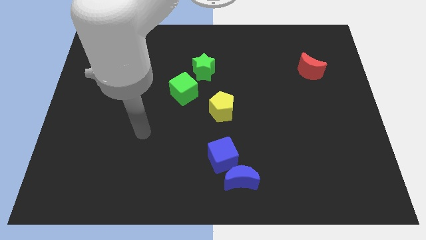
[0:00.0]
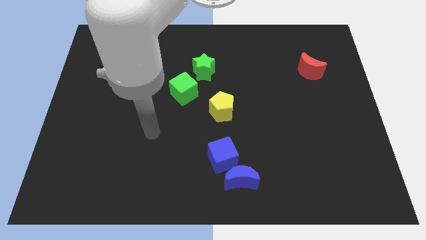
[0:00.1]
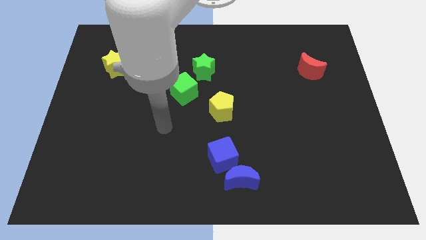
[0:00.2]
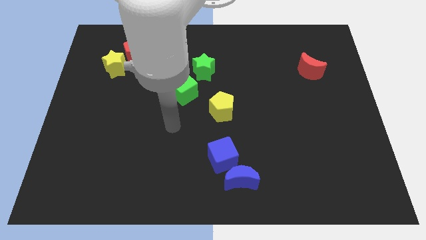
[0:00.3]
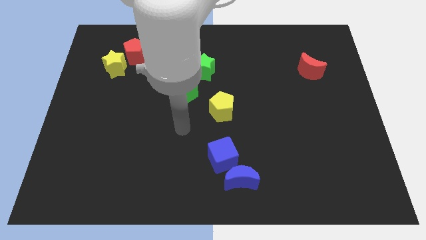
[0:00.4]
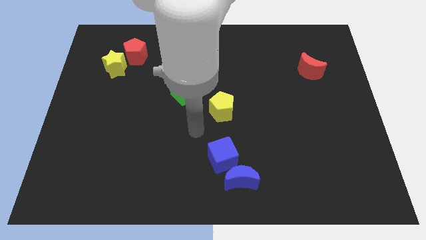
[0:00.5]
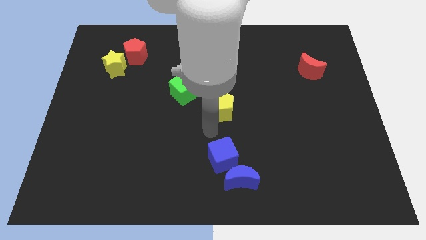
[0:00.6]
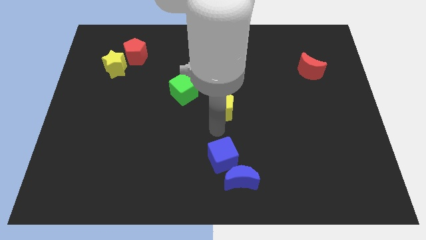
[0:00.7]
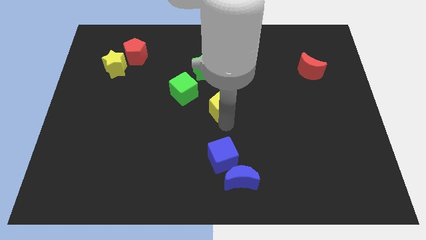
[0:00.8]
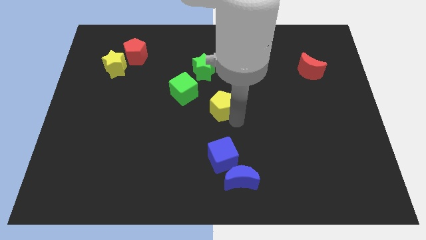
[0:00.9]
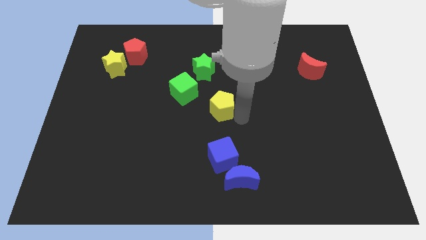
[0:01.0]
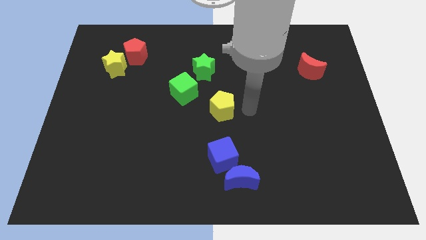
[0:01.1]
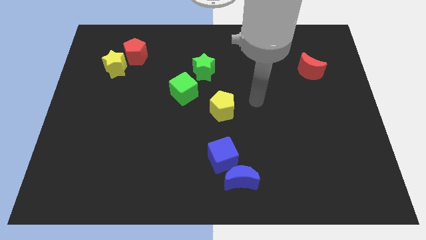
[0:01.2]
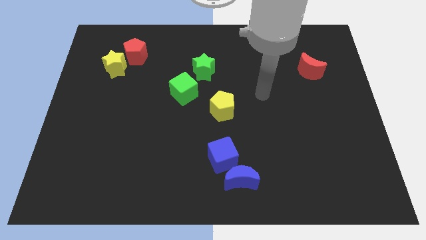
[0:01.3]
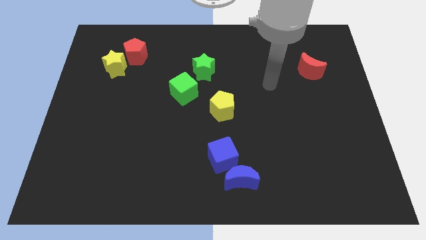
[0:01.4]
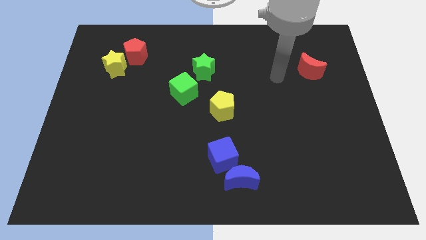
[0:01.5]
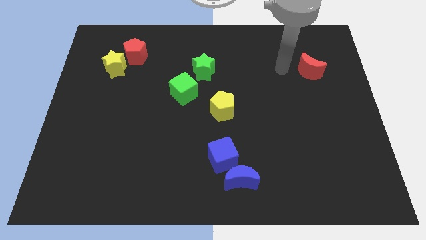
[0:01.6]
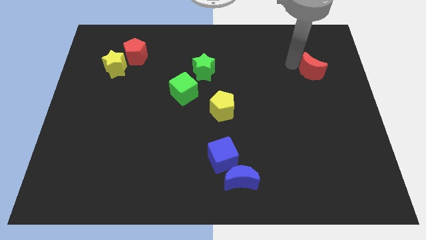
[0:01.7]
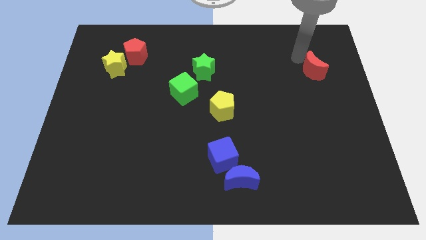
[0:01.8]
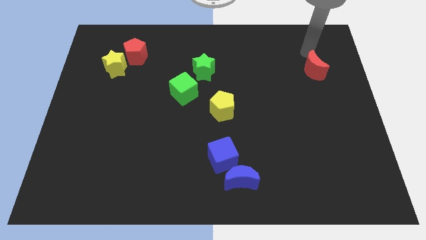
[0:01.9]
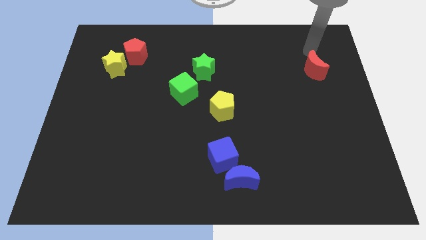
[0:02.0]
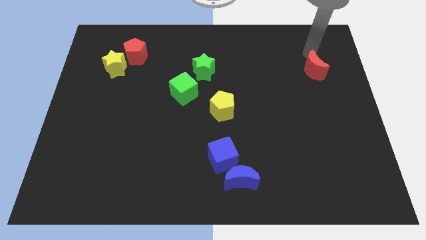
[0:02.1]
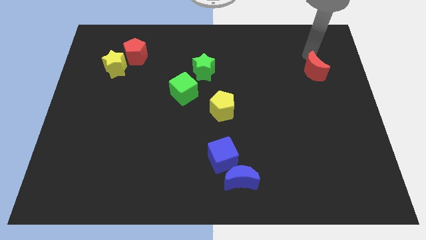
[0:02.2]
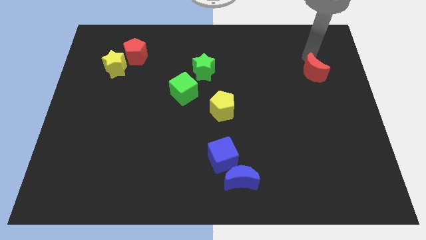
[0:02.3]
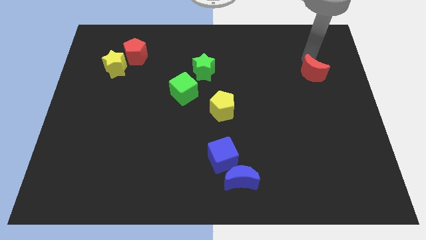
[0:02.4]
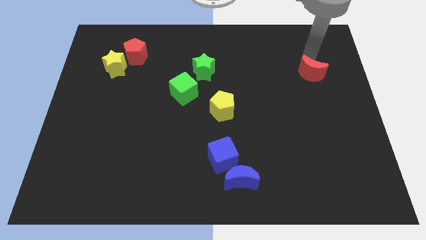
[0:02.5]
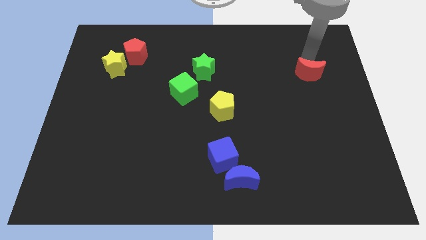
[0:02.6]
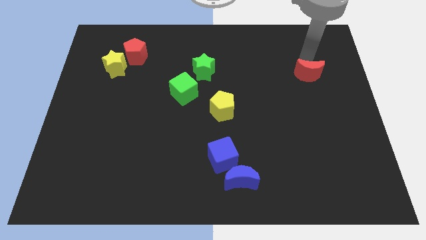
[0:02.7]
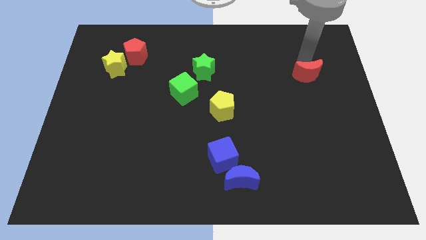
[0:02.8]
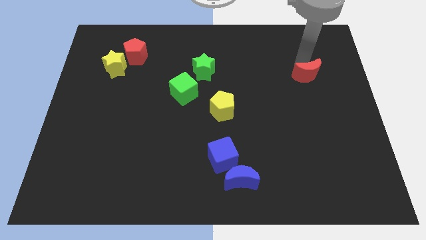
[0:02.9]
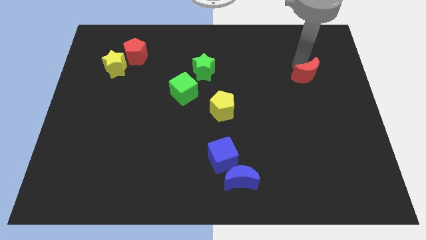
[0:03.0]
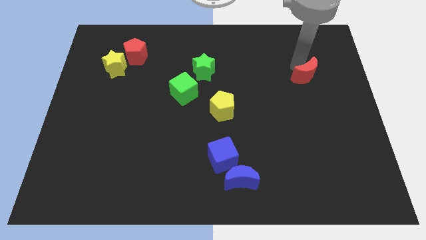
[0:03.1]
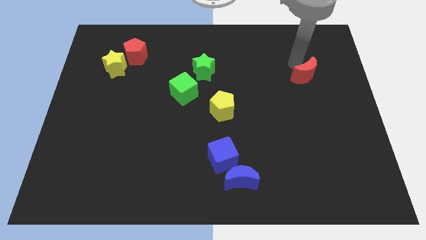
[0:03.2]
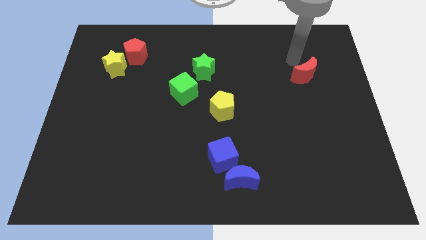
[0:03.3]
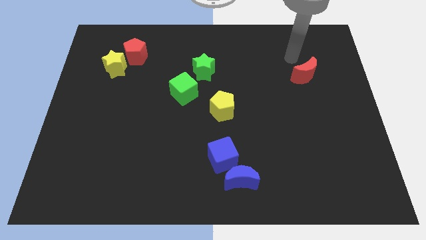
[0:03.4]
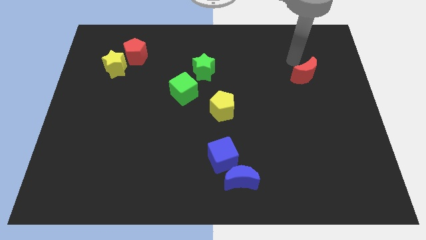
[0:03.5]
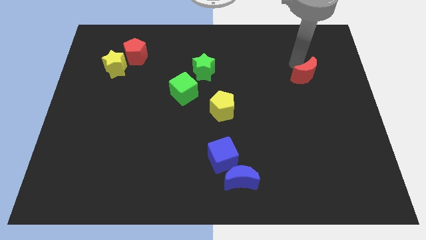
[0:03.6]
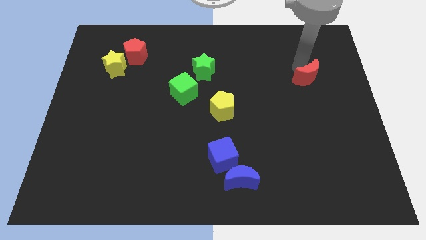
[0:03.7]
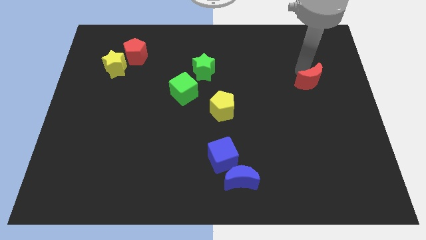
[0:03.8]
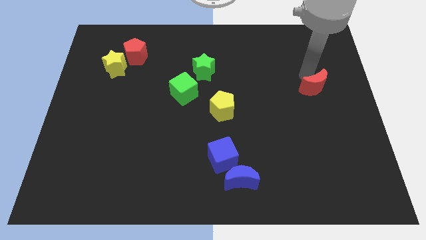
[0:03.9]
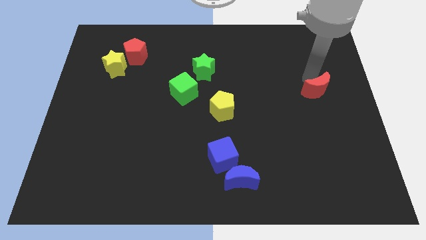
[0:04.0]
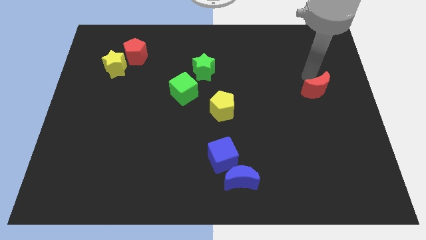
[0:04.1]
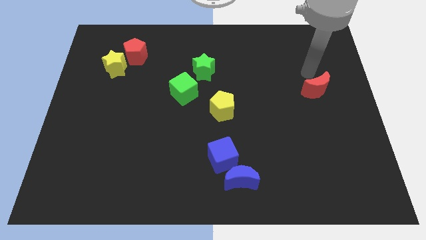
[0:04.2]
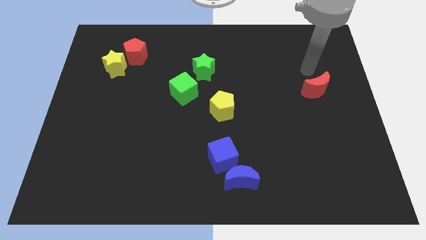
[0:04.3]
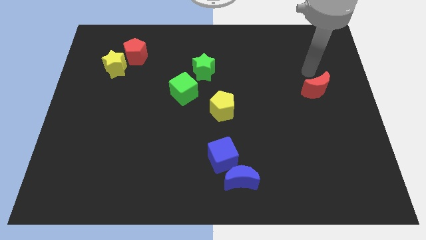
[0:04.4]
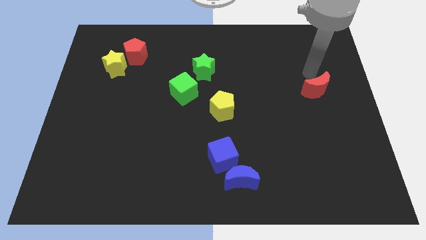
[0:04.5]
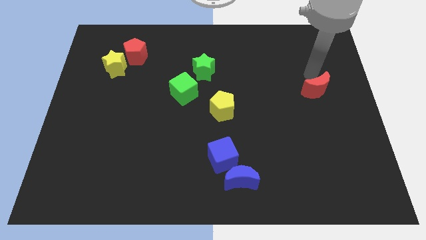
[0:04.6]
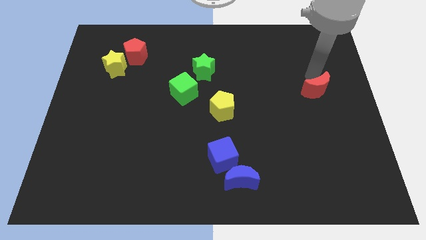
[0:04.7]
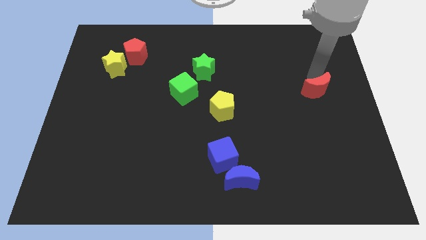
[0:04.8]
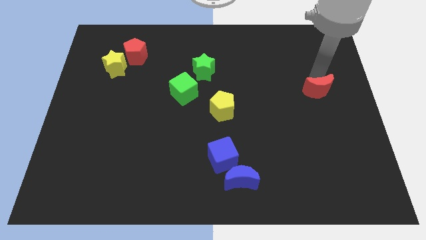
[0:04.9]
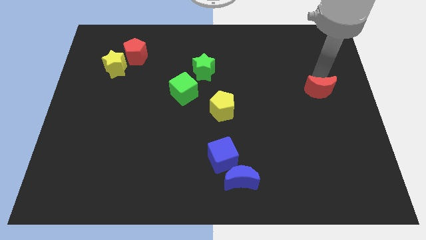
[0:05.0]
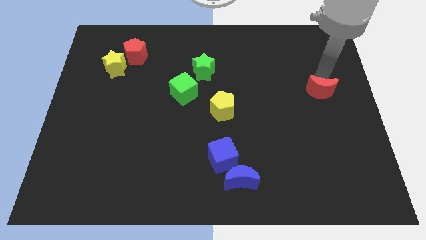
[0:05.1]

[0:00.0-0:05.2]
slide the red moon a little bit downwards

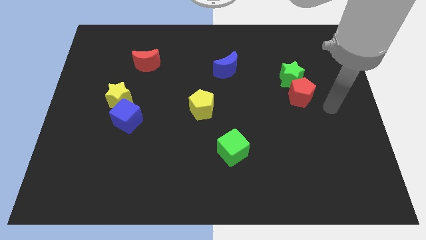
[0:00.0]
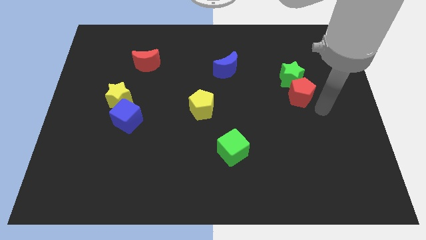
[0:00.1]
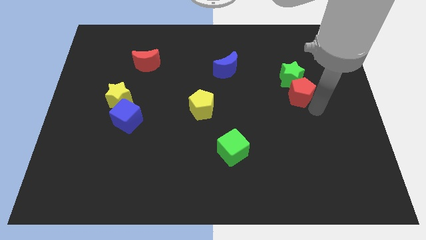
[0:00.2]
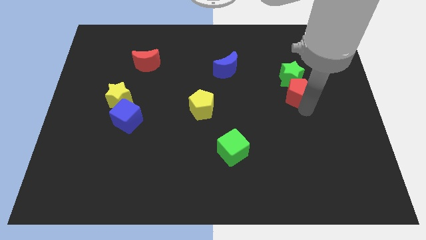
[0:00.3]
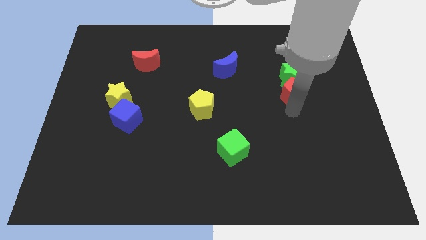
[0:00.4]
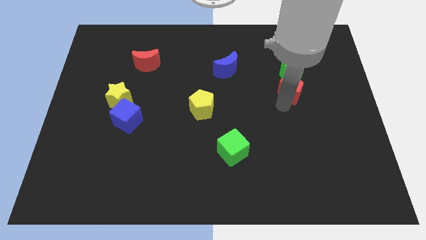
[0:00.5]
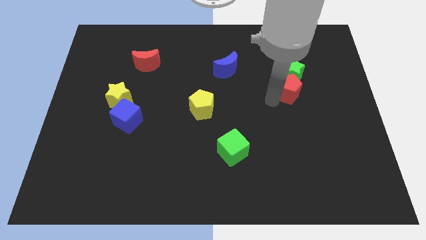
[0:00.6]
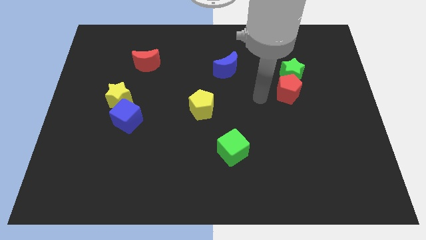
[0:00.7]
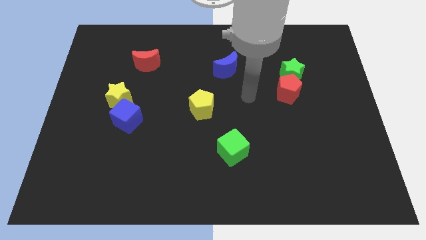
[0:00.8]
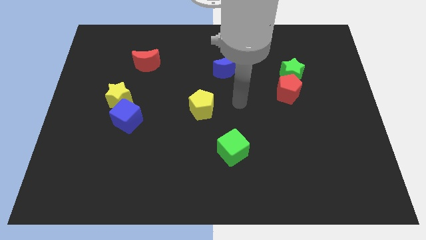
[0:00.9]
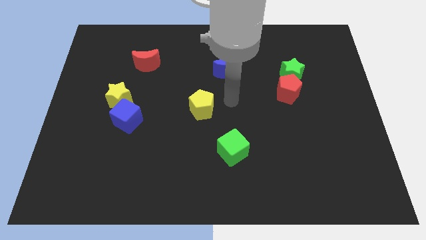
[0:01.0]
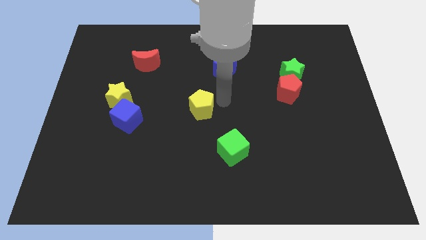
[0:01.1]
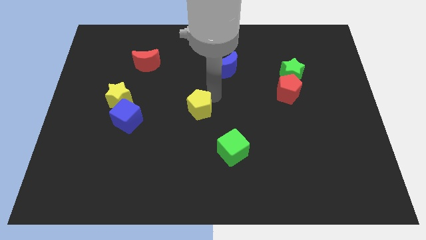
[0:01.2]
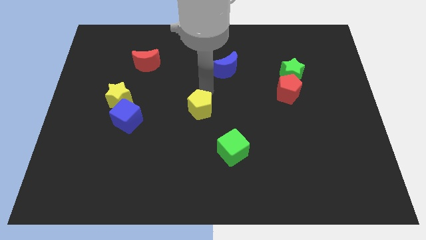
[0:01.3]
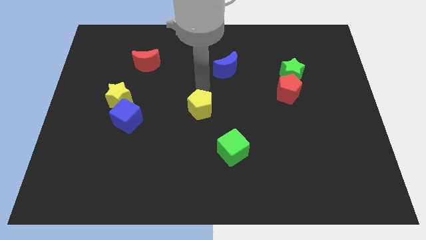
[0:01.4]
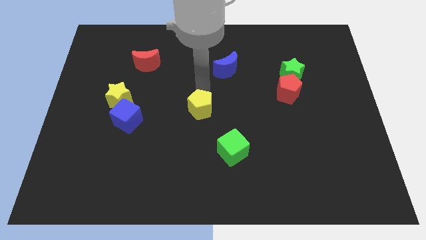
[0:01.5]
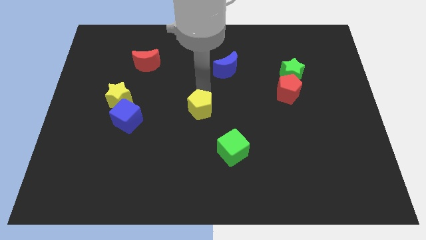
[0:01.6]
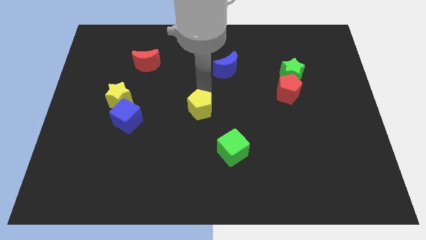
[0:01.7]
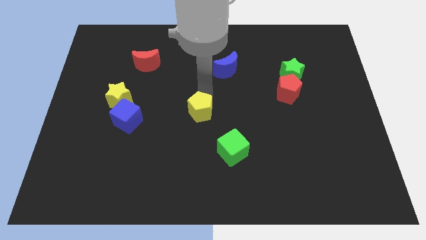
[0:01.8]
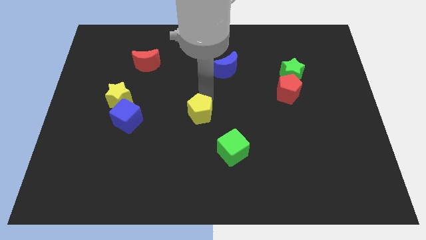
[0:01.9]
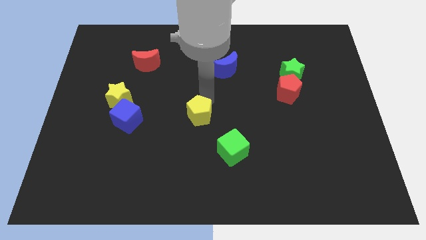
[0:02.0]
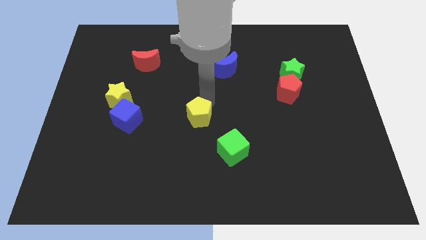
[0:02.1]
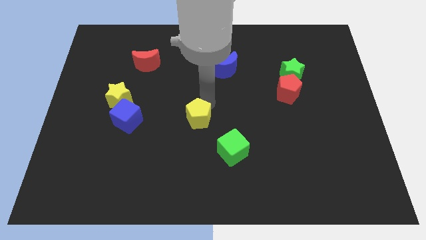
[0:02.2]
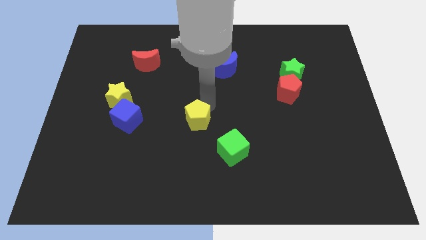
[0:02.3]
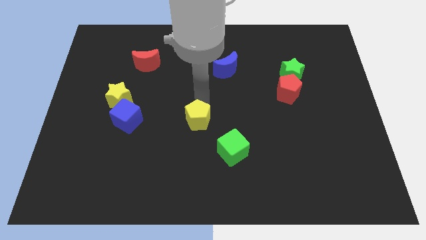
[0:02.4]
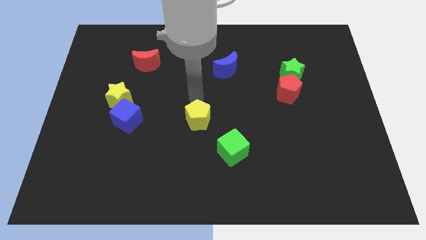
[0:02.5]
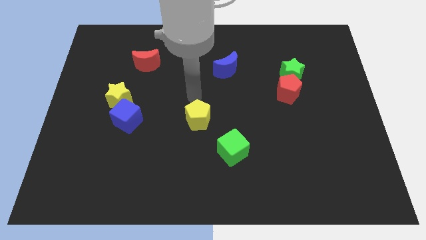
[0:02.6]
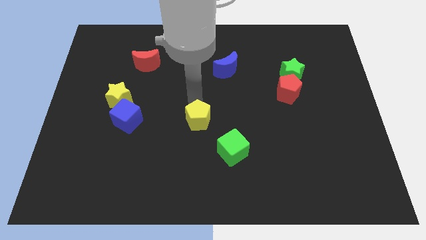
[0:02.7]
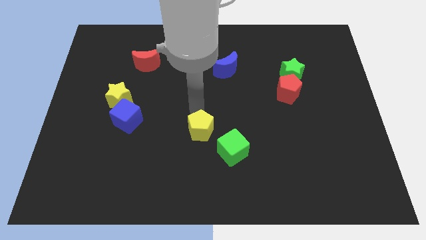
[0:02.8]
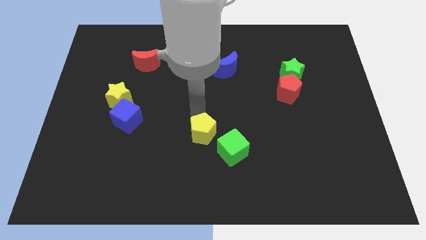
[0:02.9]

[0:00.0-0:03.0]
slightly move the yellow pentagon down

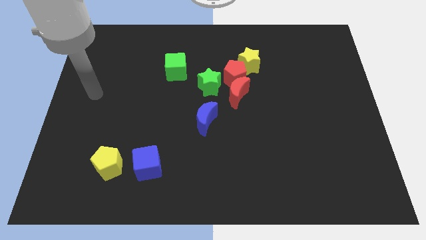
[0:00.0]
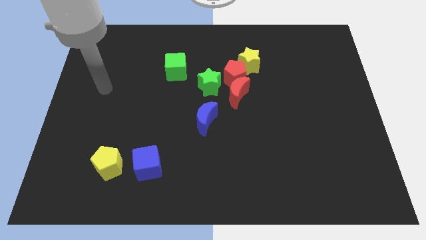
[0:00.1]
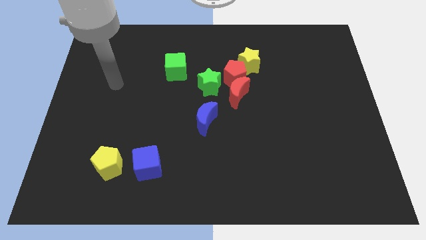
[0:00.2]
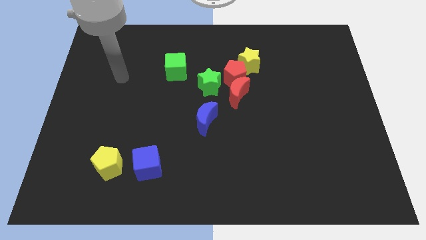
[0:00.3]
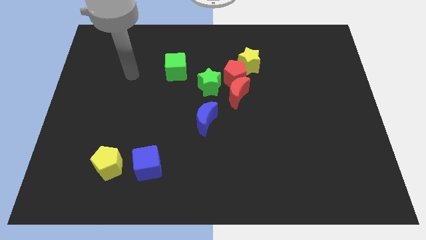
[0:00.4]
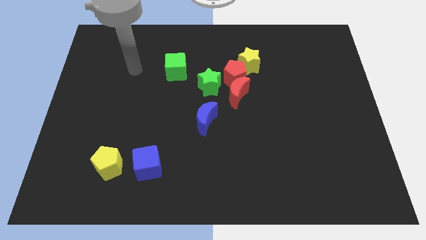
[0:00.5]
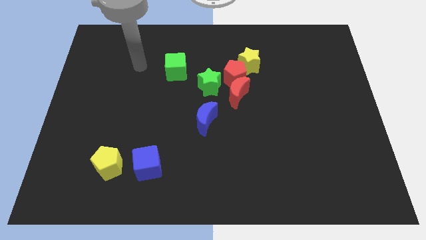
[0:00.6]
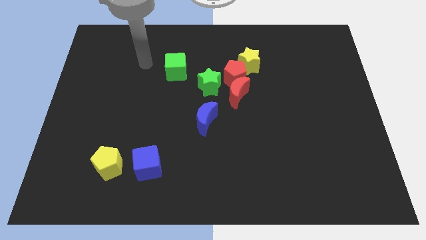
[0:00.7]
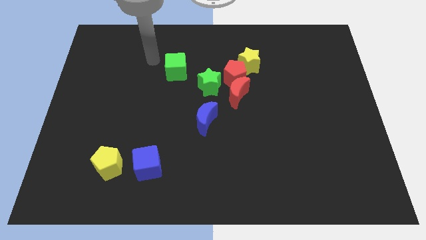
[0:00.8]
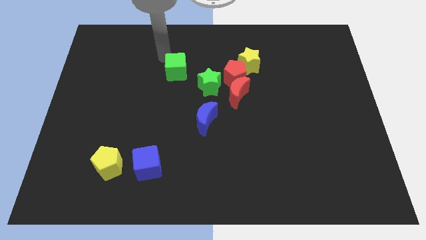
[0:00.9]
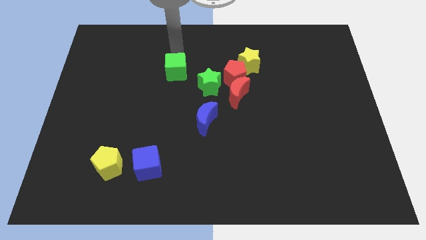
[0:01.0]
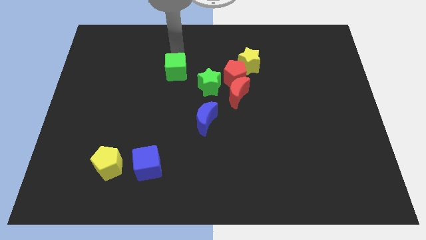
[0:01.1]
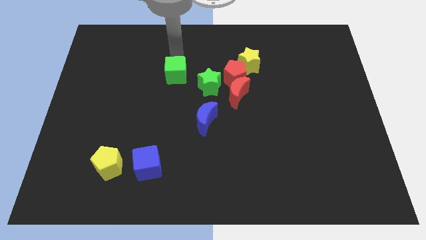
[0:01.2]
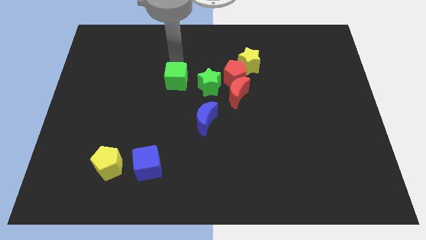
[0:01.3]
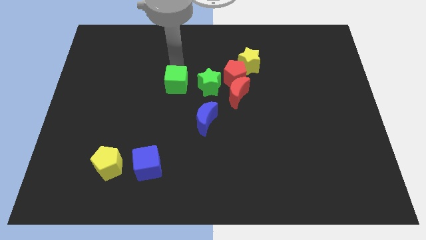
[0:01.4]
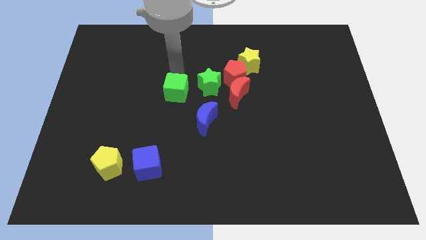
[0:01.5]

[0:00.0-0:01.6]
push the green cube down somewhat
